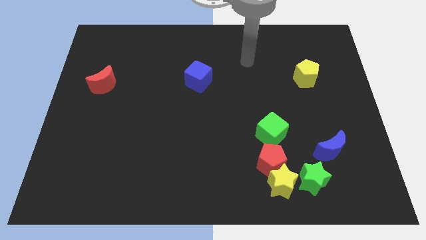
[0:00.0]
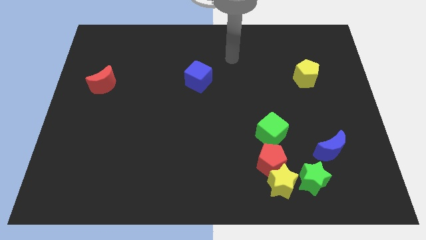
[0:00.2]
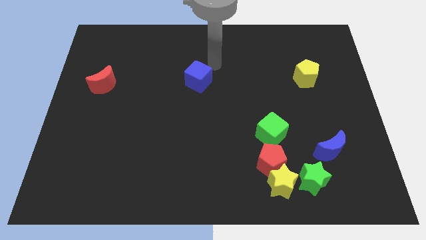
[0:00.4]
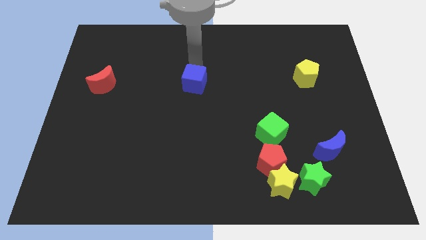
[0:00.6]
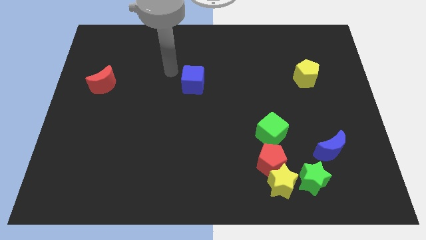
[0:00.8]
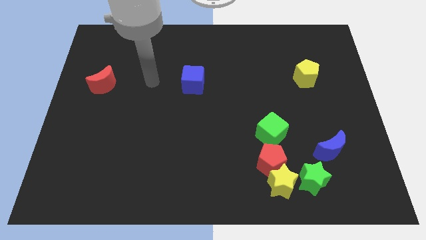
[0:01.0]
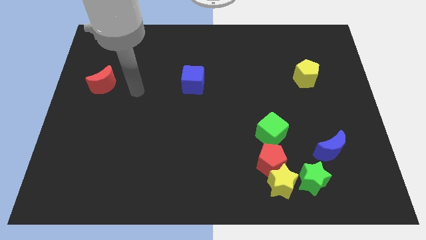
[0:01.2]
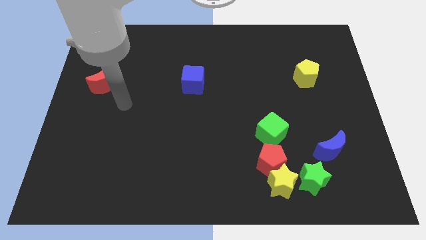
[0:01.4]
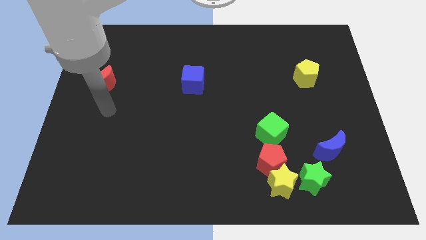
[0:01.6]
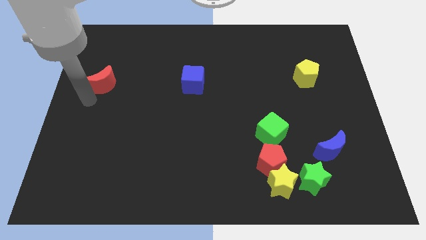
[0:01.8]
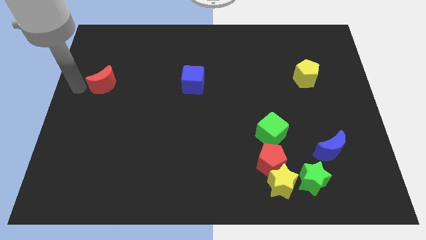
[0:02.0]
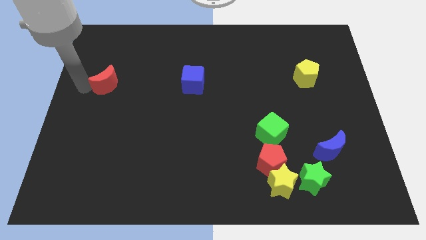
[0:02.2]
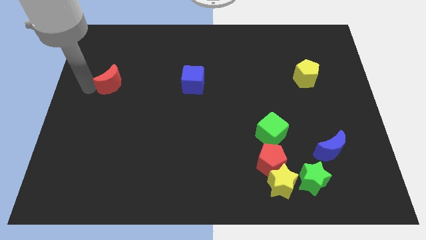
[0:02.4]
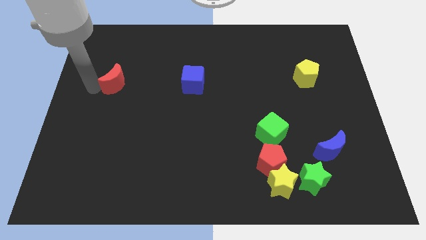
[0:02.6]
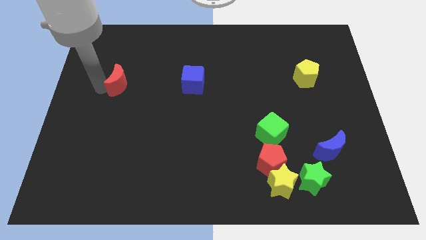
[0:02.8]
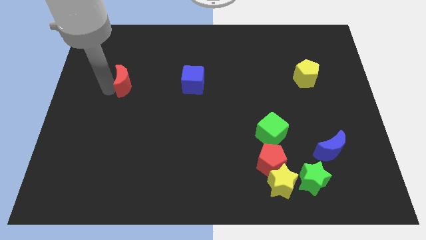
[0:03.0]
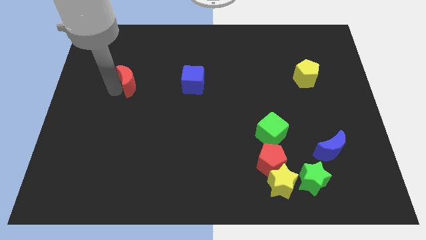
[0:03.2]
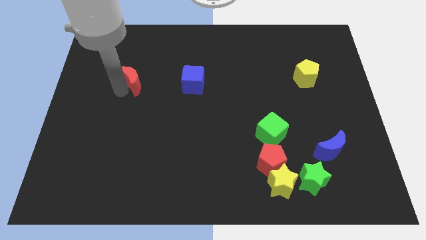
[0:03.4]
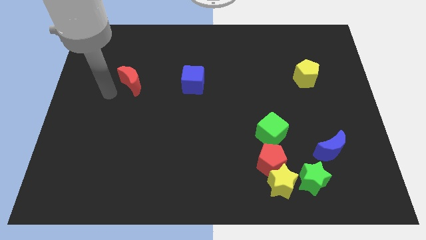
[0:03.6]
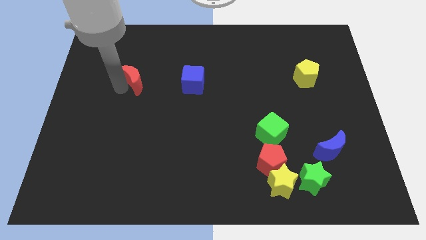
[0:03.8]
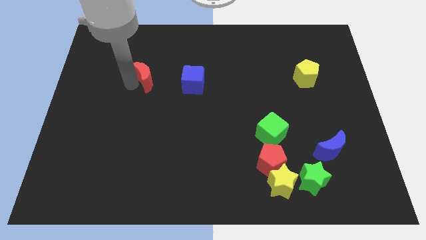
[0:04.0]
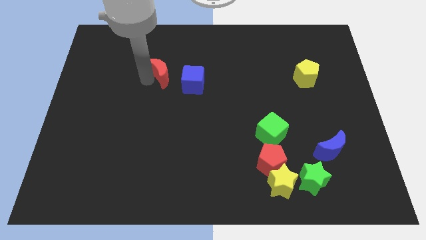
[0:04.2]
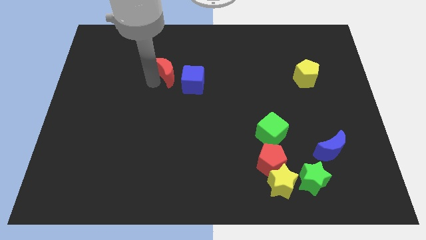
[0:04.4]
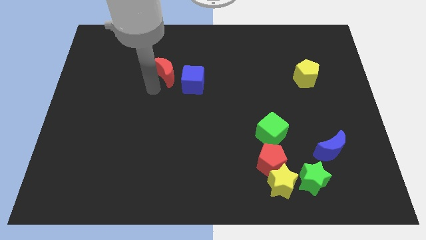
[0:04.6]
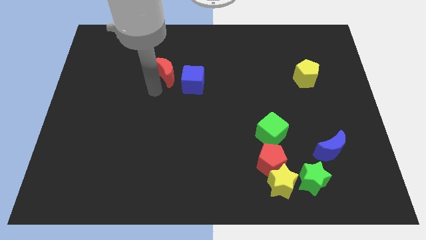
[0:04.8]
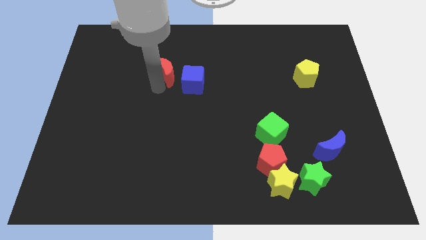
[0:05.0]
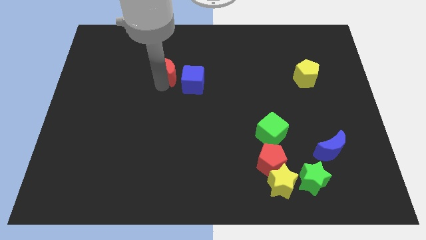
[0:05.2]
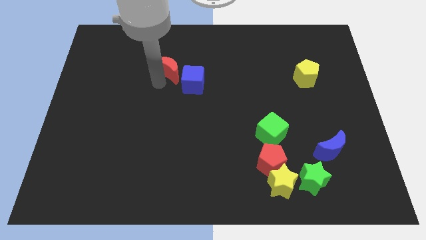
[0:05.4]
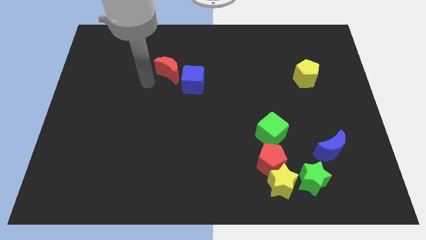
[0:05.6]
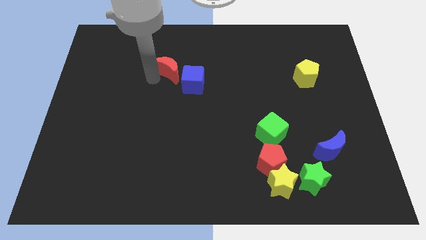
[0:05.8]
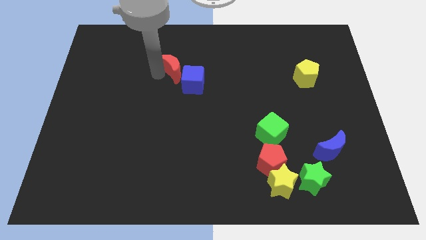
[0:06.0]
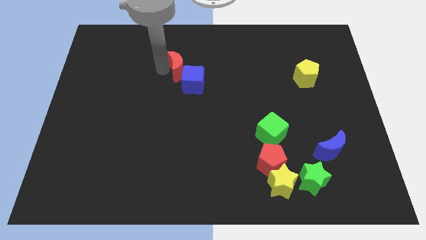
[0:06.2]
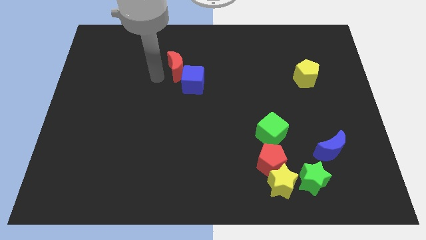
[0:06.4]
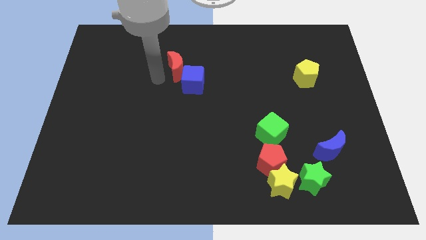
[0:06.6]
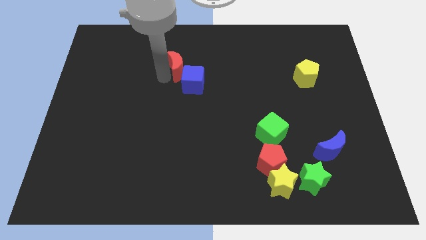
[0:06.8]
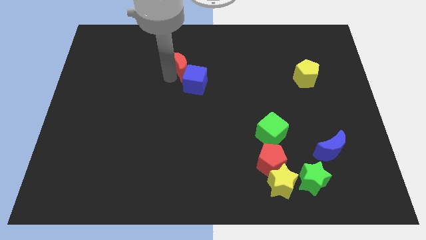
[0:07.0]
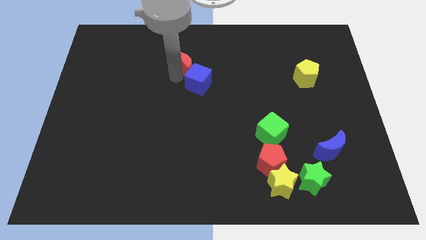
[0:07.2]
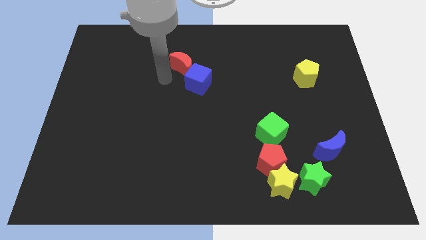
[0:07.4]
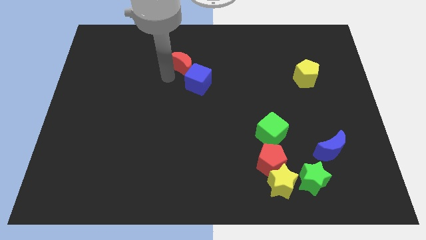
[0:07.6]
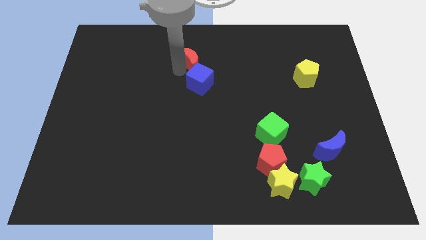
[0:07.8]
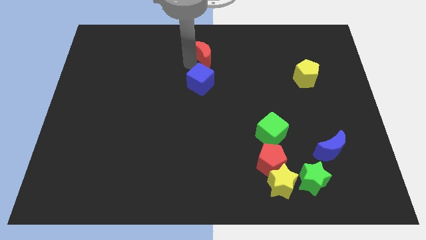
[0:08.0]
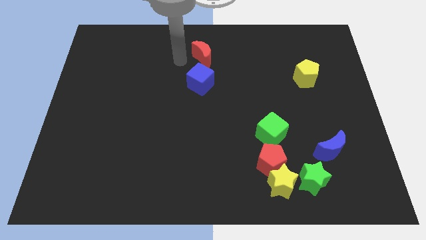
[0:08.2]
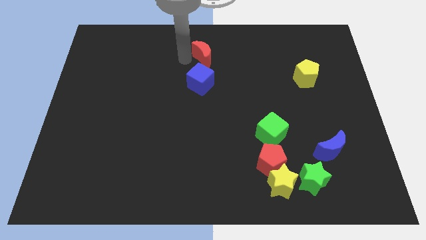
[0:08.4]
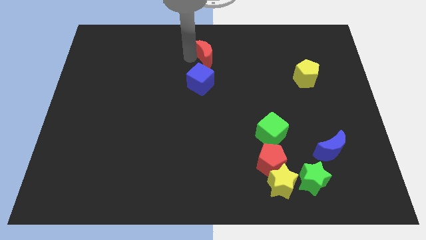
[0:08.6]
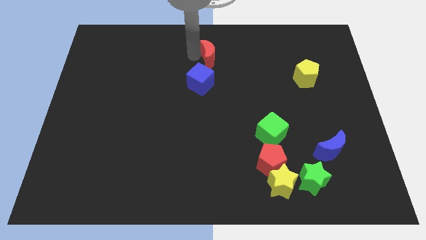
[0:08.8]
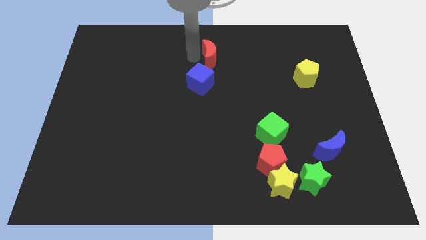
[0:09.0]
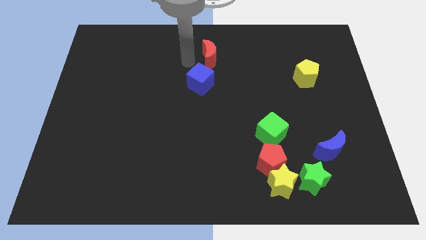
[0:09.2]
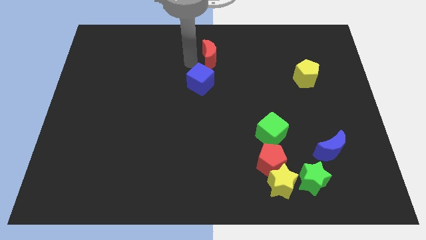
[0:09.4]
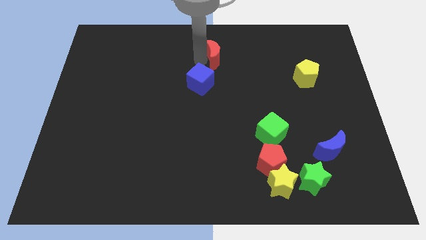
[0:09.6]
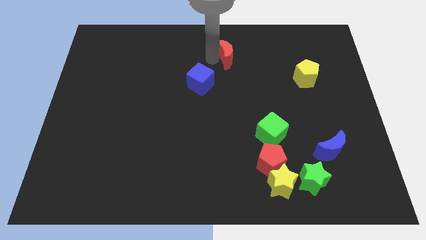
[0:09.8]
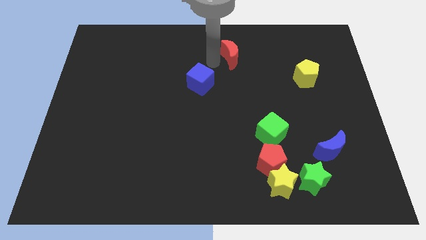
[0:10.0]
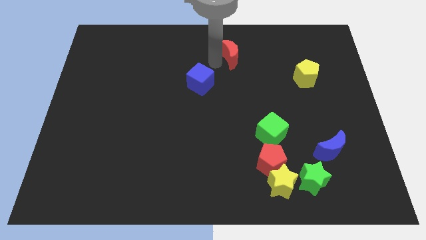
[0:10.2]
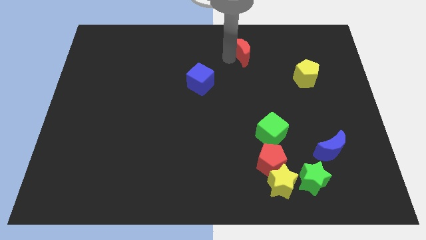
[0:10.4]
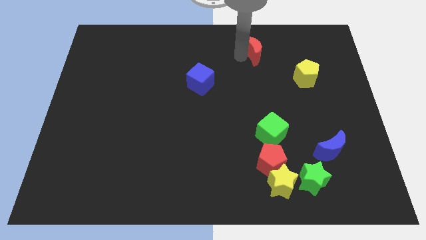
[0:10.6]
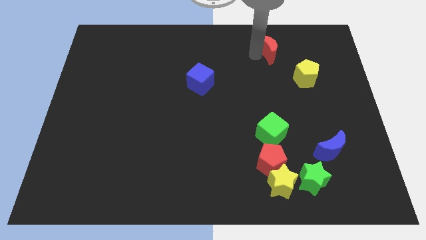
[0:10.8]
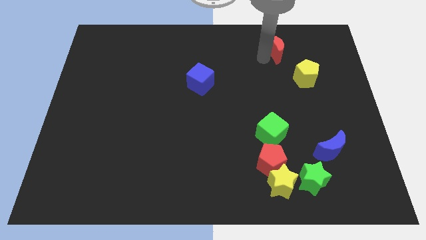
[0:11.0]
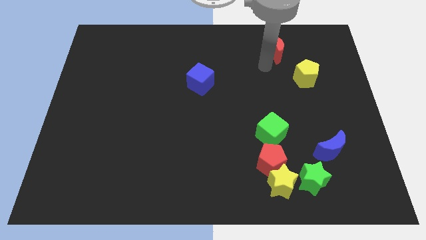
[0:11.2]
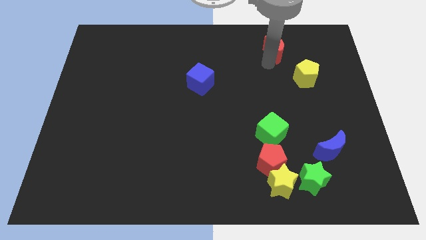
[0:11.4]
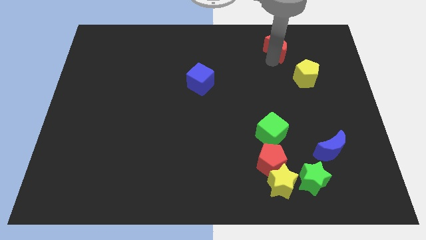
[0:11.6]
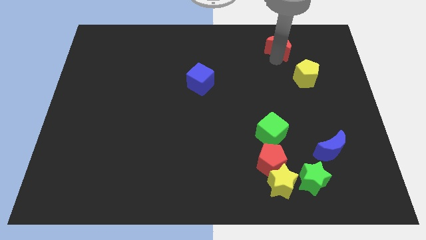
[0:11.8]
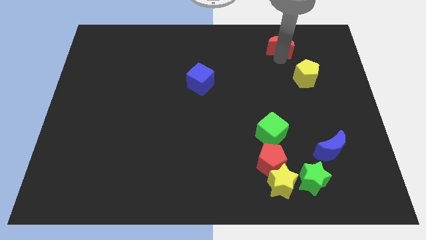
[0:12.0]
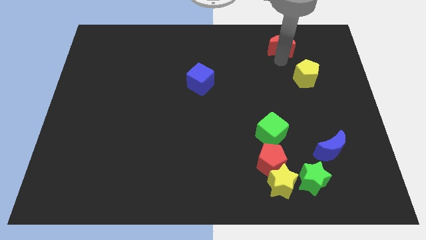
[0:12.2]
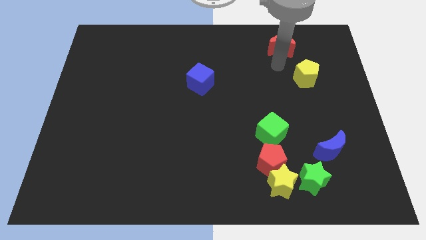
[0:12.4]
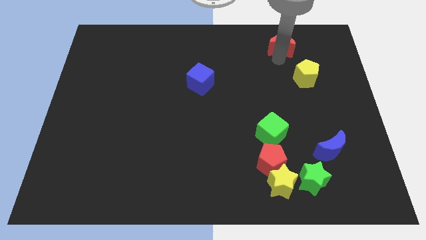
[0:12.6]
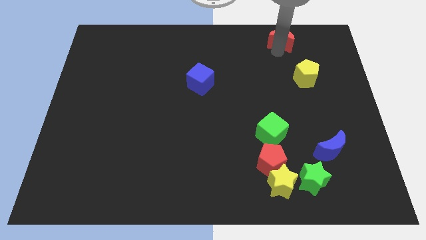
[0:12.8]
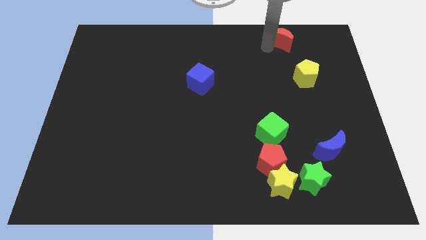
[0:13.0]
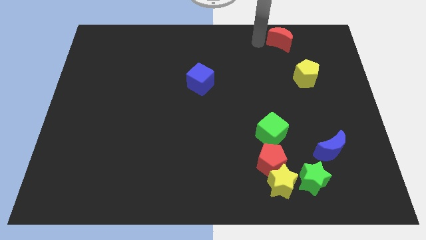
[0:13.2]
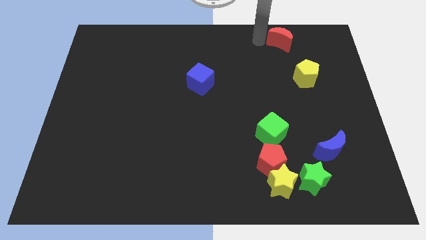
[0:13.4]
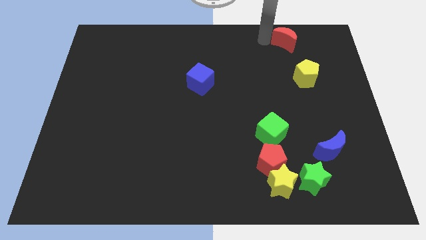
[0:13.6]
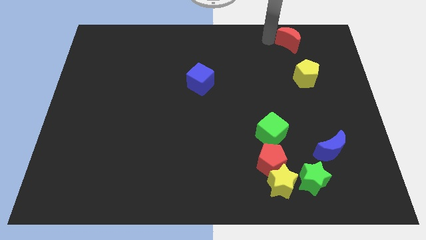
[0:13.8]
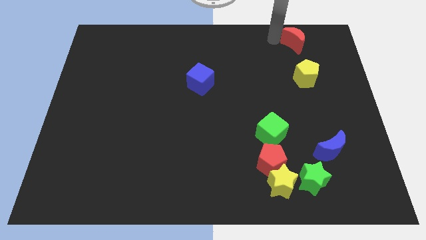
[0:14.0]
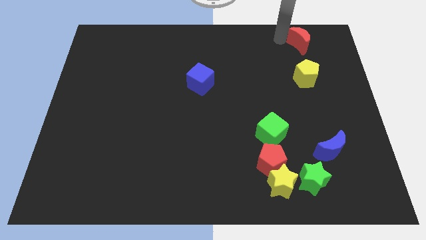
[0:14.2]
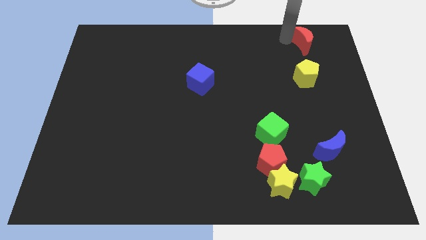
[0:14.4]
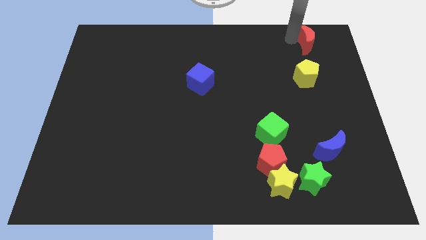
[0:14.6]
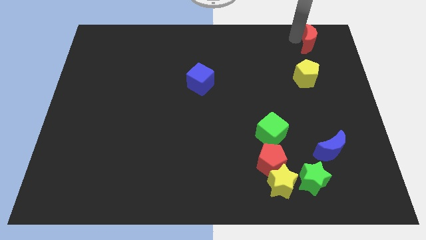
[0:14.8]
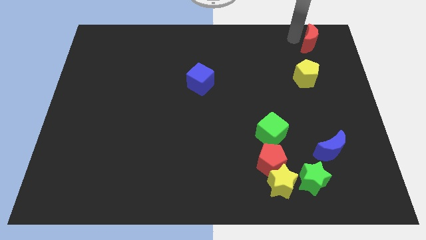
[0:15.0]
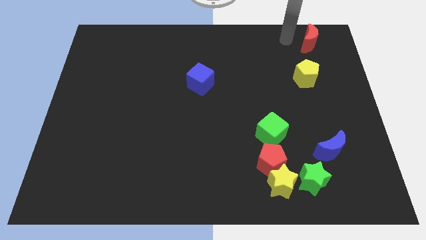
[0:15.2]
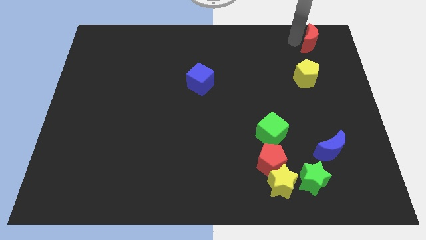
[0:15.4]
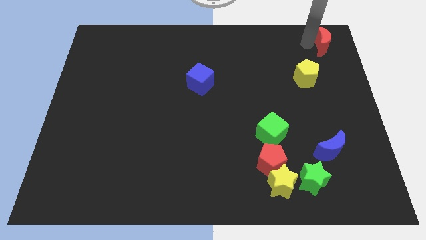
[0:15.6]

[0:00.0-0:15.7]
put the red moon to the top right
